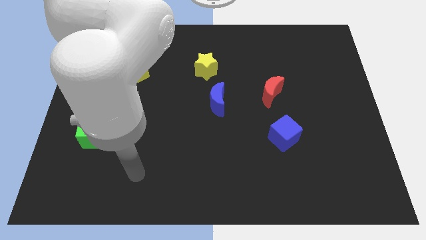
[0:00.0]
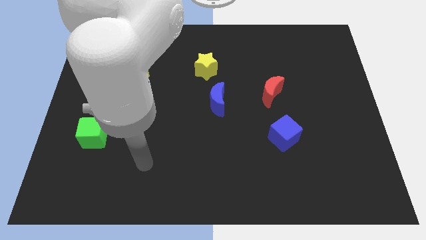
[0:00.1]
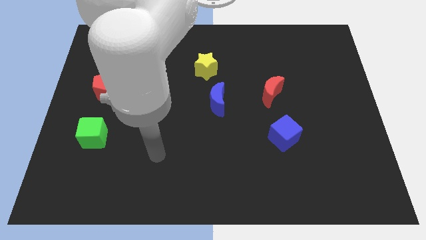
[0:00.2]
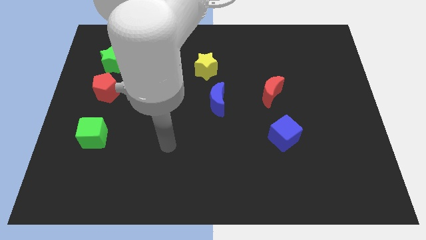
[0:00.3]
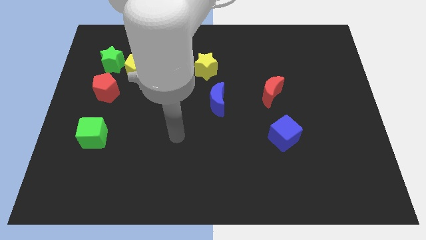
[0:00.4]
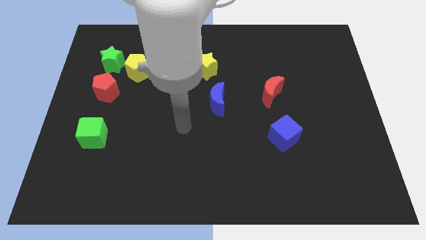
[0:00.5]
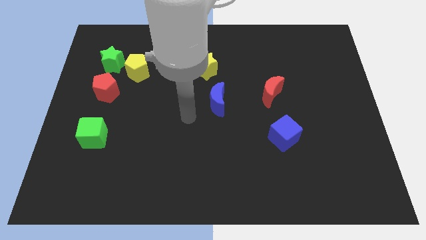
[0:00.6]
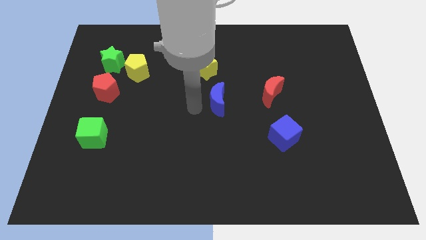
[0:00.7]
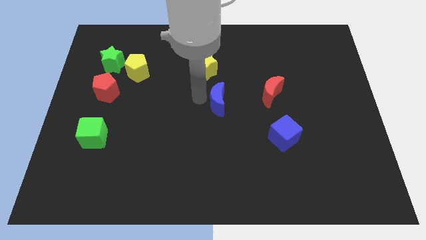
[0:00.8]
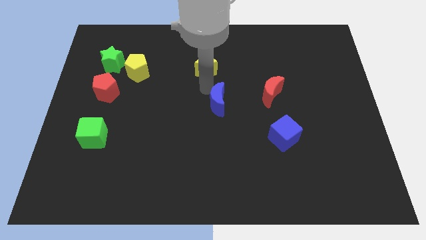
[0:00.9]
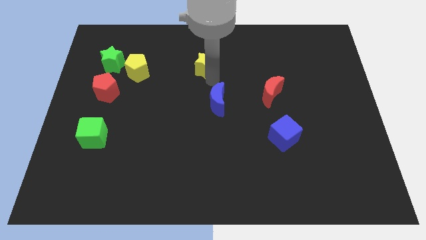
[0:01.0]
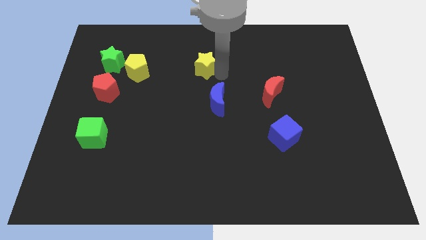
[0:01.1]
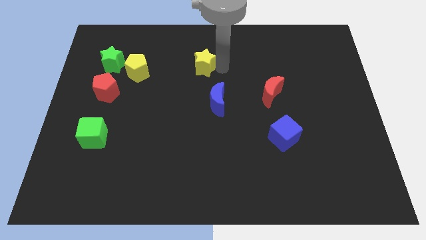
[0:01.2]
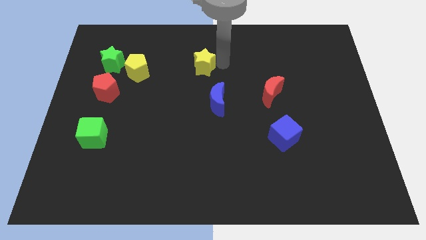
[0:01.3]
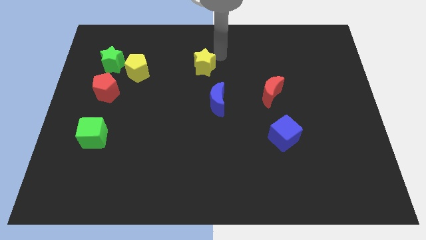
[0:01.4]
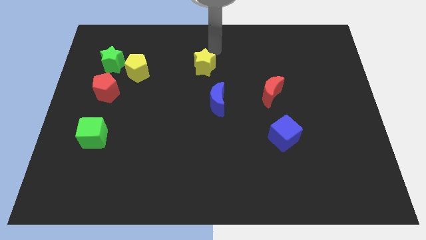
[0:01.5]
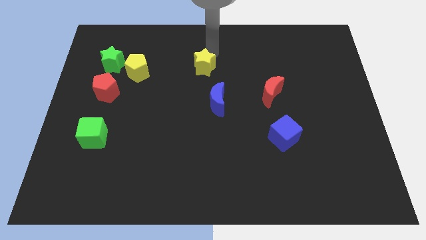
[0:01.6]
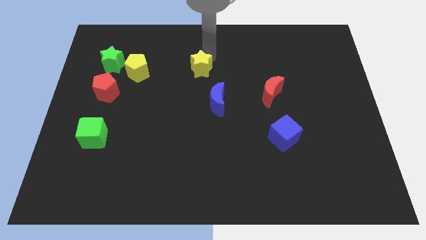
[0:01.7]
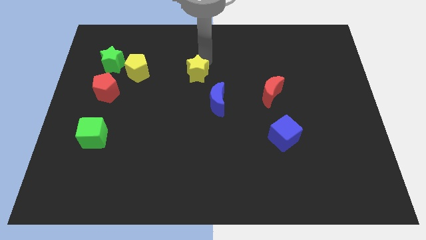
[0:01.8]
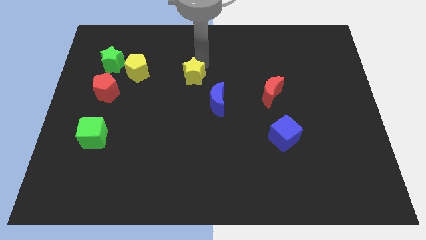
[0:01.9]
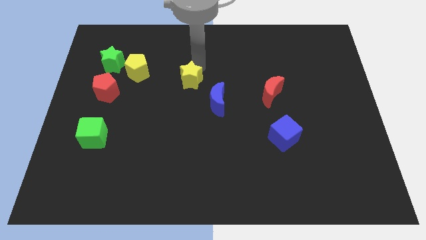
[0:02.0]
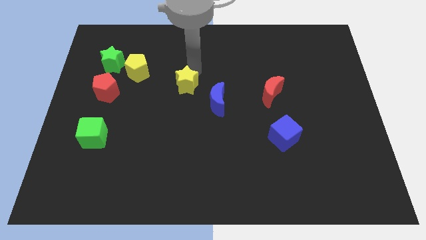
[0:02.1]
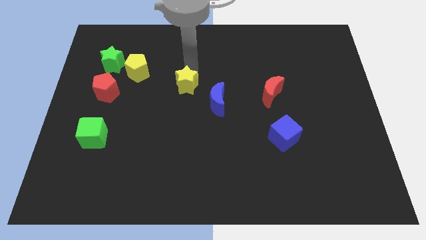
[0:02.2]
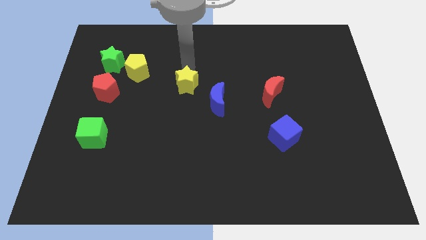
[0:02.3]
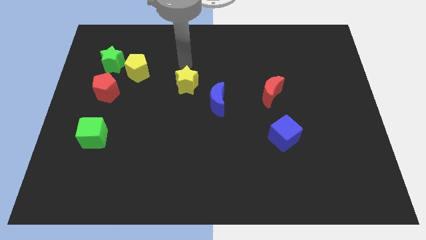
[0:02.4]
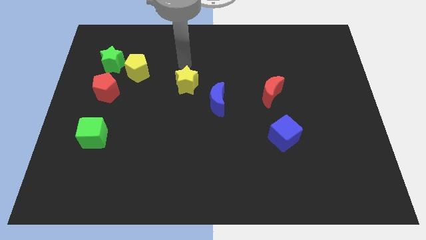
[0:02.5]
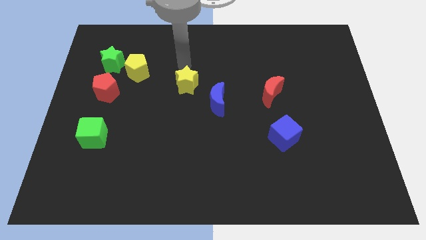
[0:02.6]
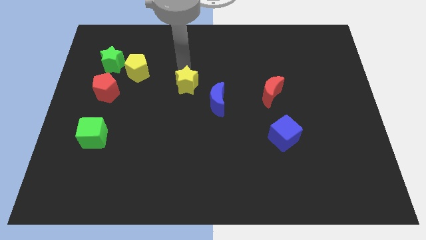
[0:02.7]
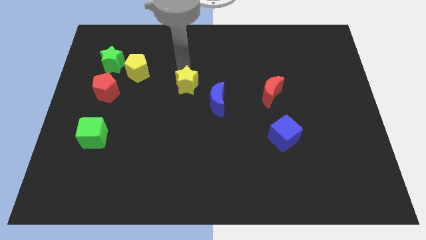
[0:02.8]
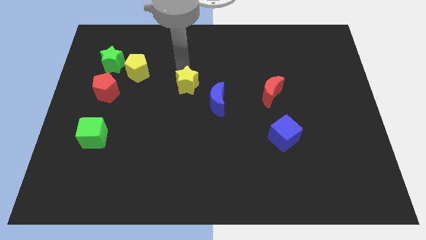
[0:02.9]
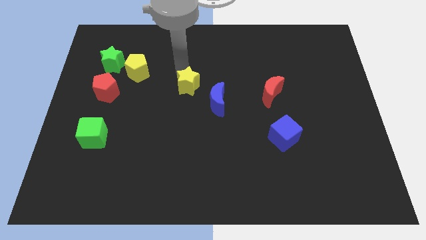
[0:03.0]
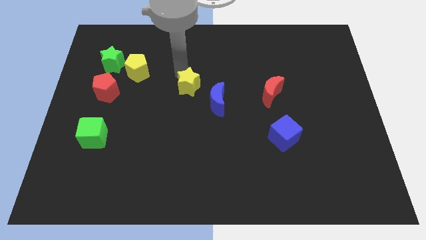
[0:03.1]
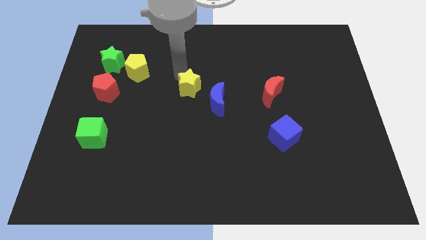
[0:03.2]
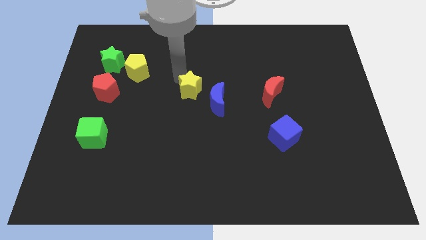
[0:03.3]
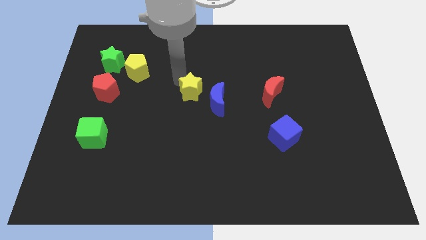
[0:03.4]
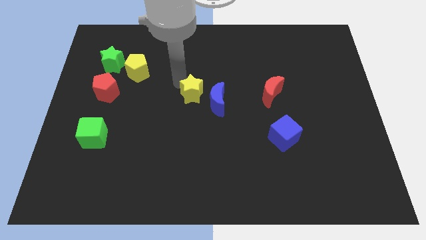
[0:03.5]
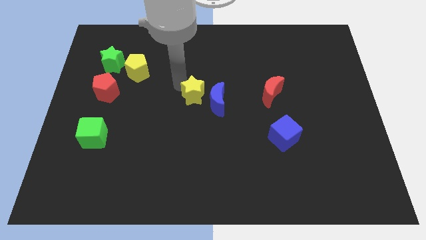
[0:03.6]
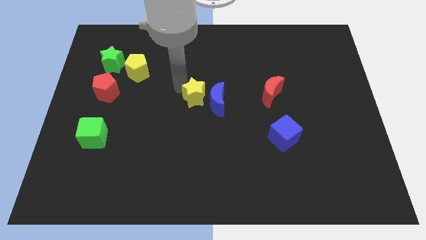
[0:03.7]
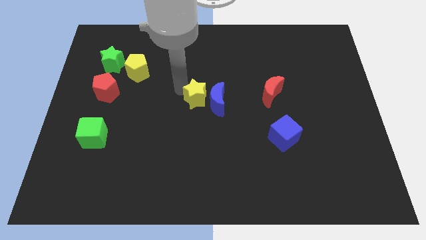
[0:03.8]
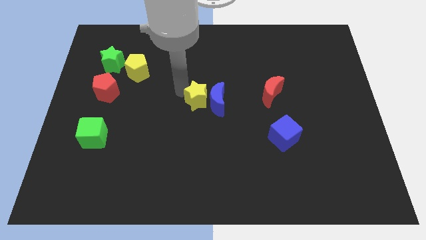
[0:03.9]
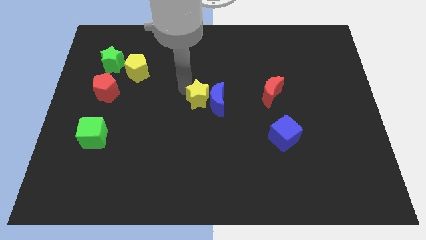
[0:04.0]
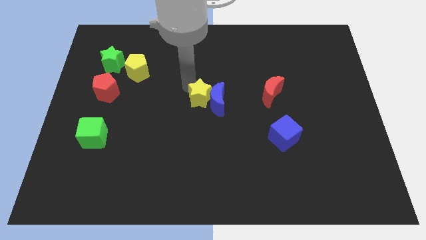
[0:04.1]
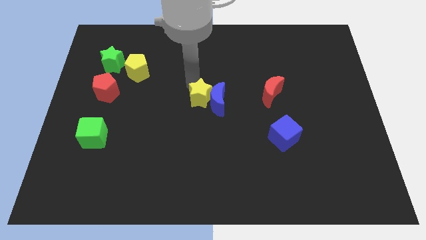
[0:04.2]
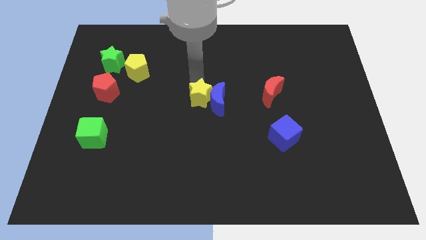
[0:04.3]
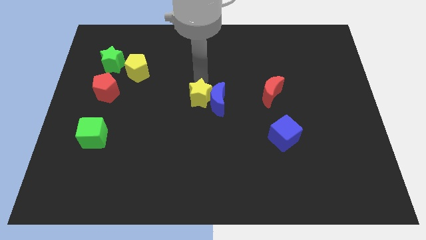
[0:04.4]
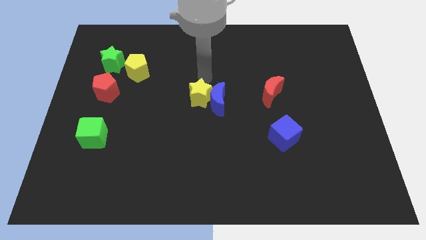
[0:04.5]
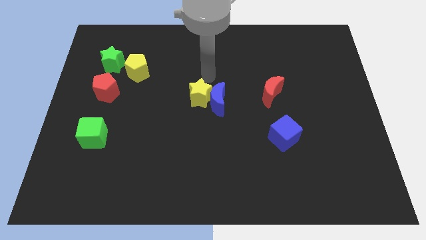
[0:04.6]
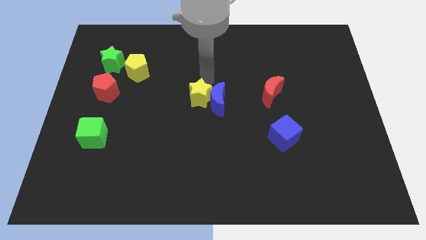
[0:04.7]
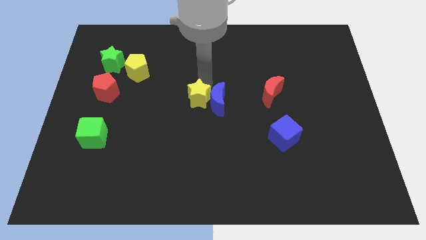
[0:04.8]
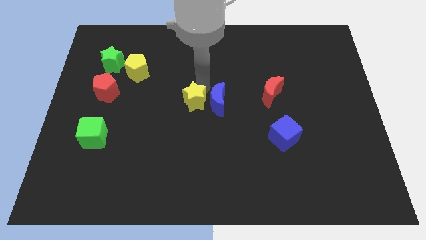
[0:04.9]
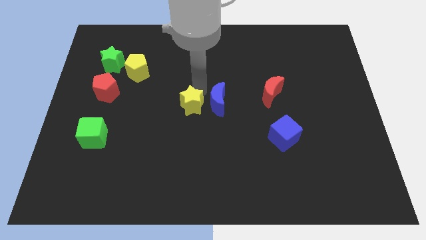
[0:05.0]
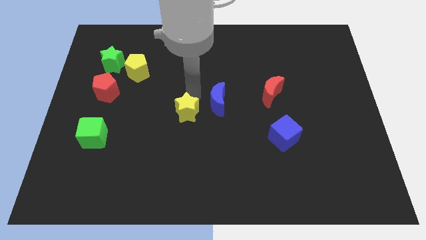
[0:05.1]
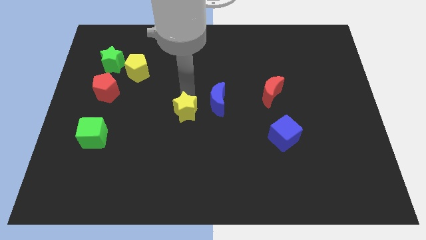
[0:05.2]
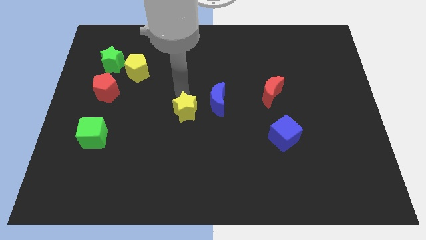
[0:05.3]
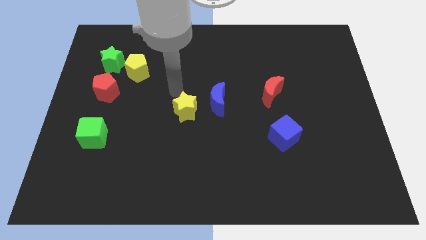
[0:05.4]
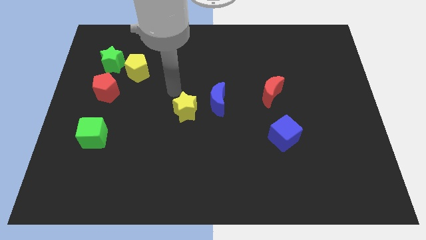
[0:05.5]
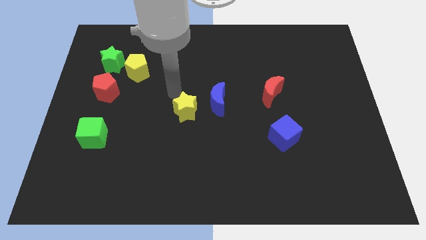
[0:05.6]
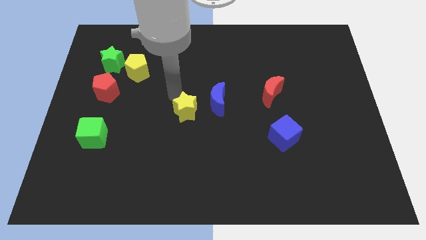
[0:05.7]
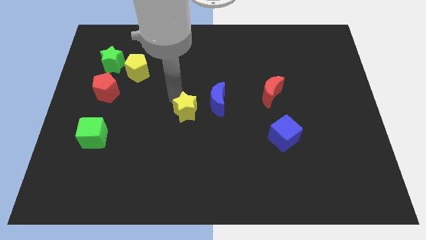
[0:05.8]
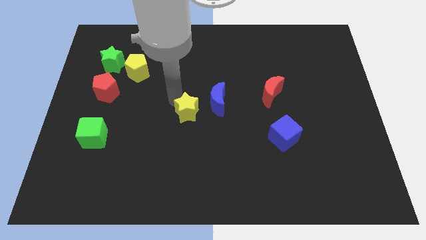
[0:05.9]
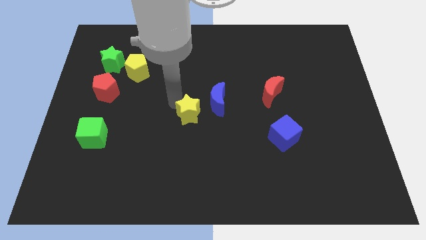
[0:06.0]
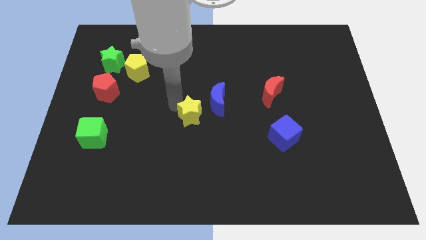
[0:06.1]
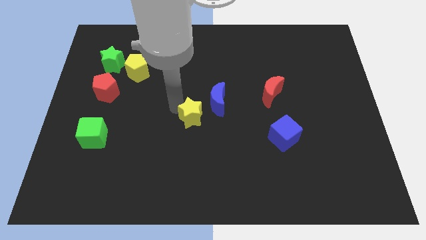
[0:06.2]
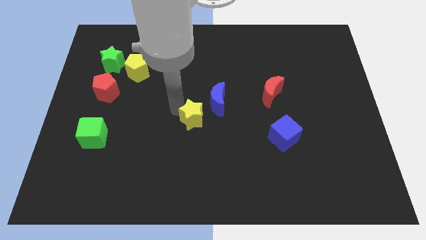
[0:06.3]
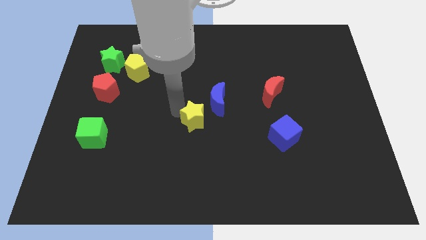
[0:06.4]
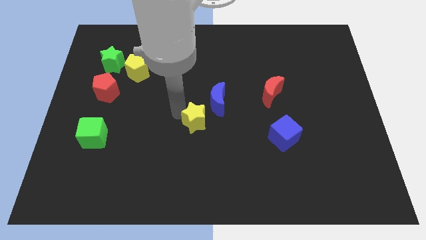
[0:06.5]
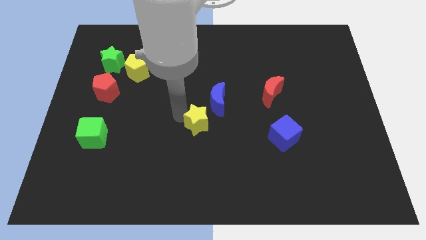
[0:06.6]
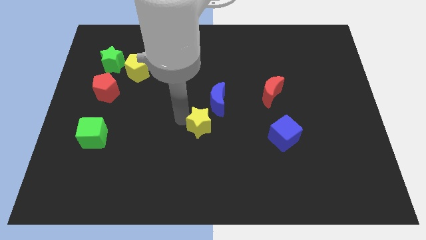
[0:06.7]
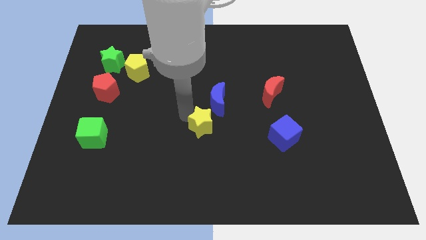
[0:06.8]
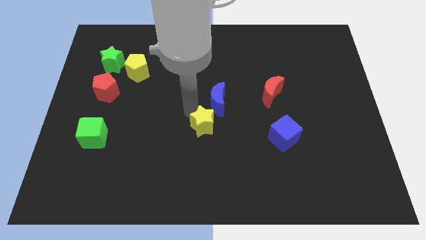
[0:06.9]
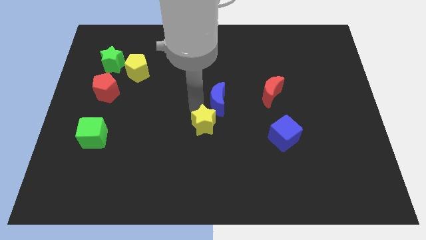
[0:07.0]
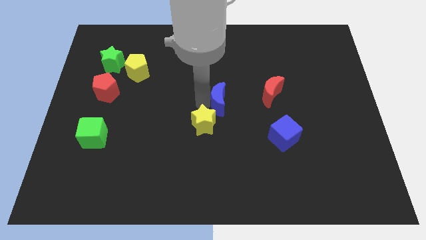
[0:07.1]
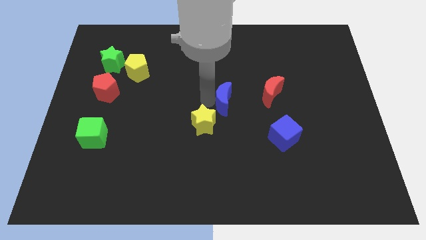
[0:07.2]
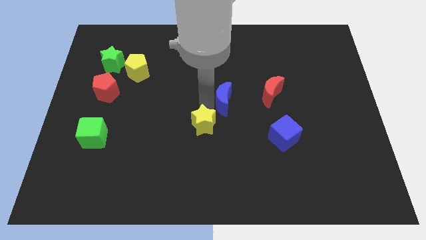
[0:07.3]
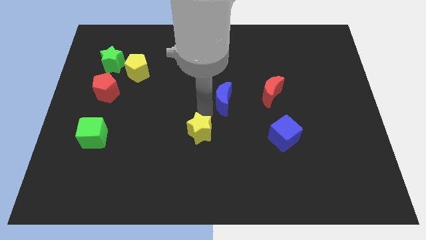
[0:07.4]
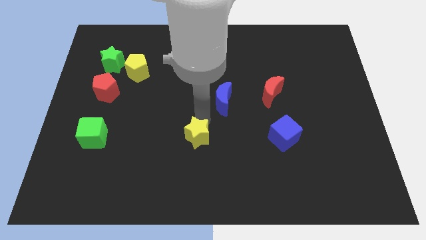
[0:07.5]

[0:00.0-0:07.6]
slide the yellow star down

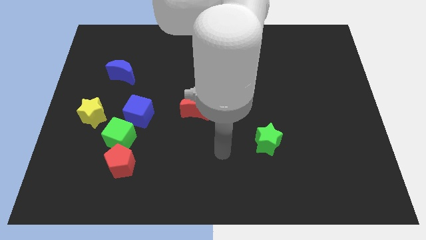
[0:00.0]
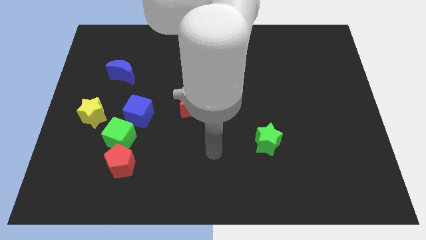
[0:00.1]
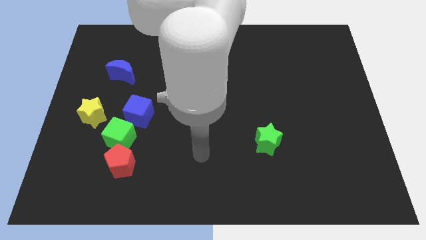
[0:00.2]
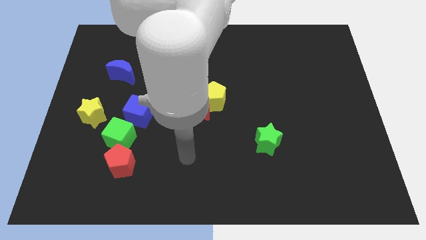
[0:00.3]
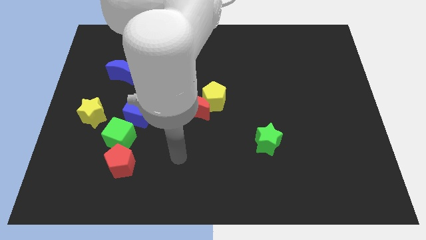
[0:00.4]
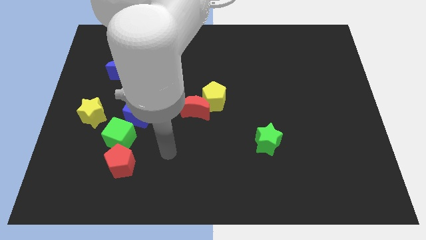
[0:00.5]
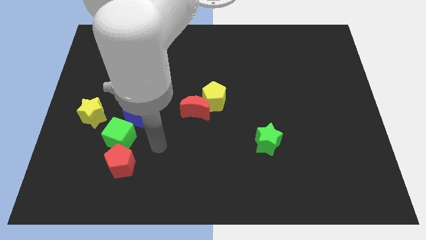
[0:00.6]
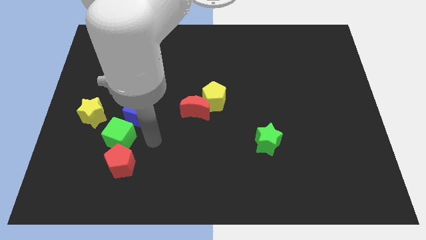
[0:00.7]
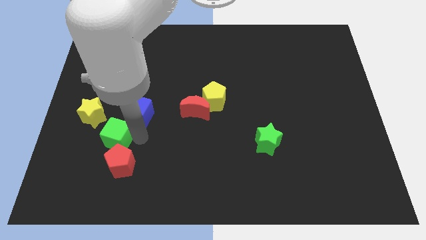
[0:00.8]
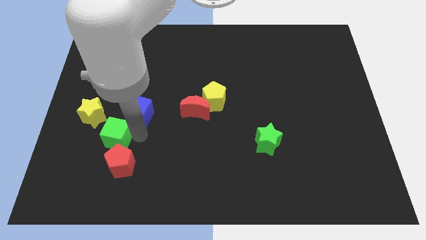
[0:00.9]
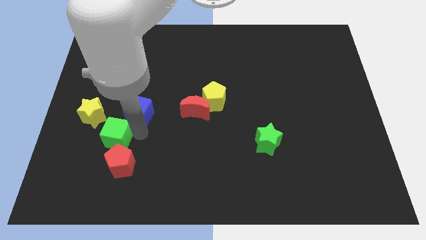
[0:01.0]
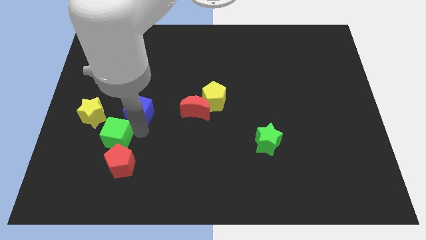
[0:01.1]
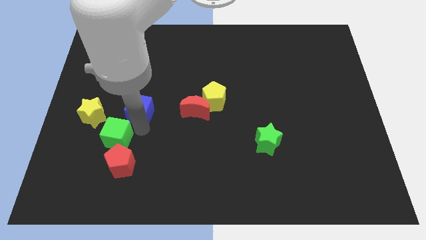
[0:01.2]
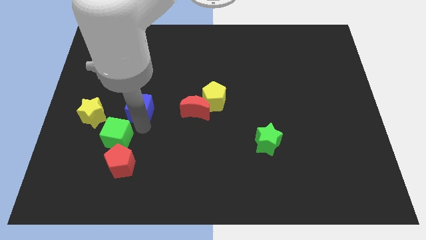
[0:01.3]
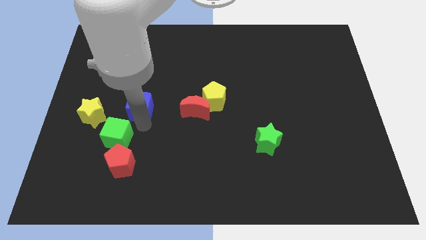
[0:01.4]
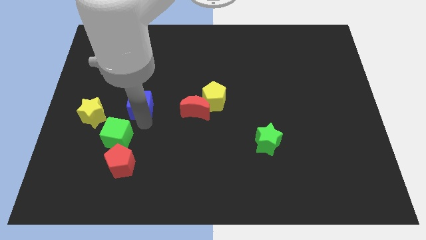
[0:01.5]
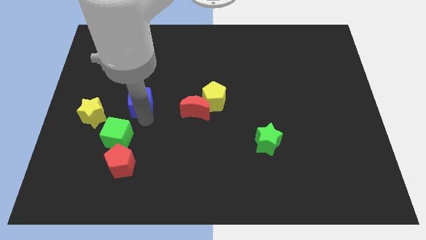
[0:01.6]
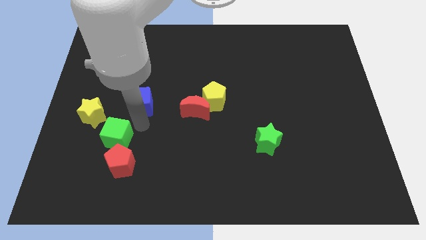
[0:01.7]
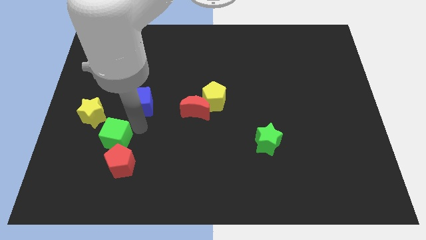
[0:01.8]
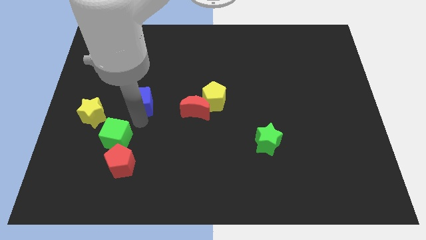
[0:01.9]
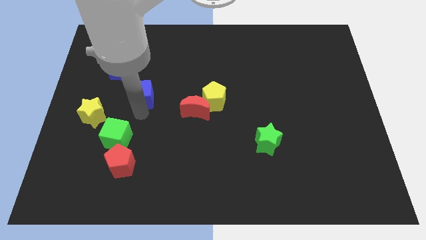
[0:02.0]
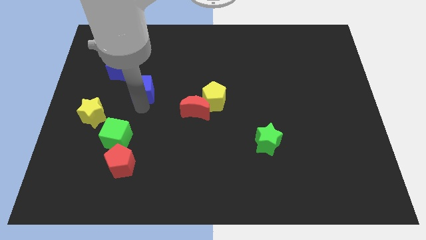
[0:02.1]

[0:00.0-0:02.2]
slightly move the blue cube upwards
